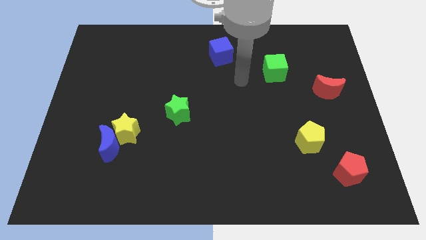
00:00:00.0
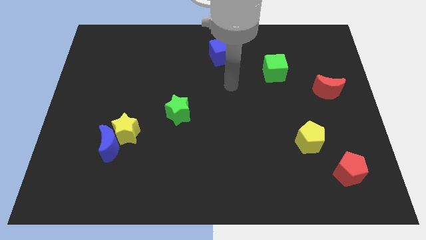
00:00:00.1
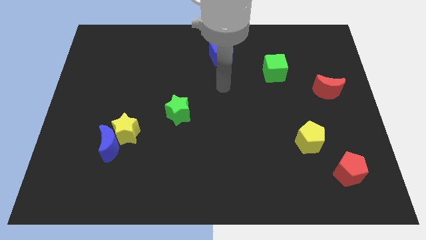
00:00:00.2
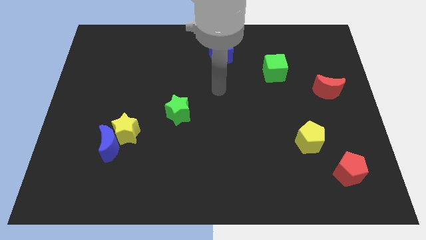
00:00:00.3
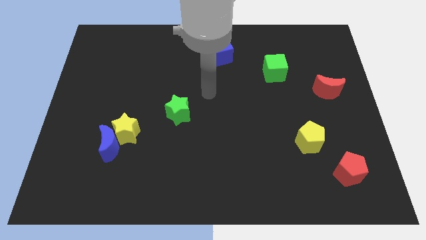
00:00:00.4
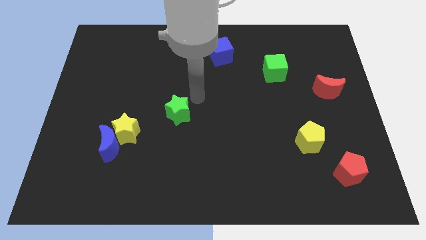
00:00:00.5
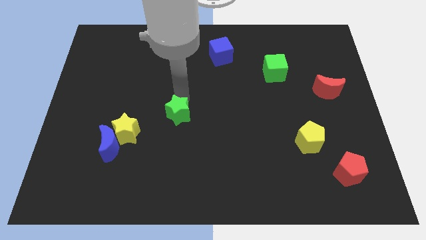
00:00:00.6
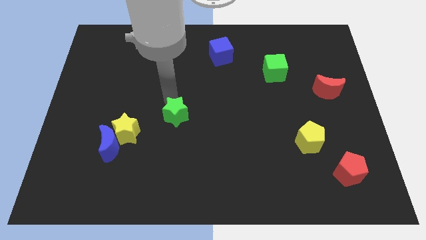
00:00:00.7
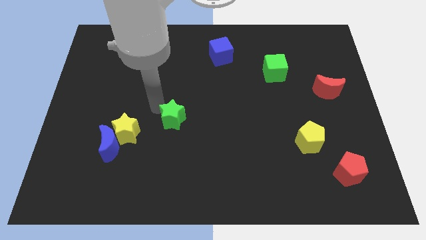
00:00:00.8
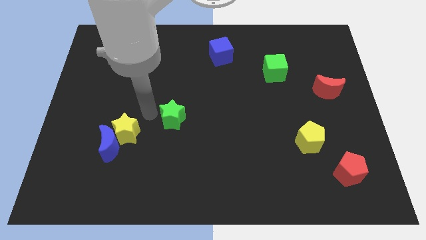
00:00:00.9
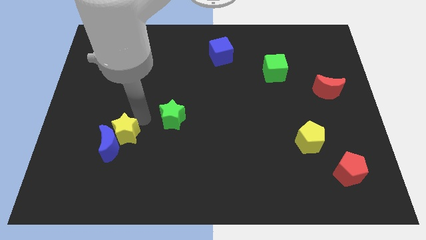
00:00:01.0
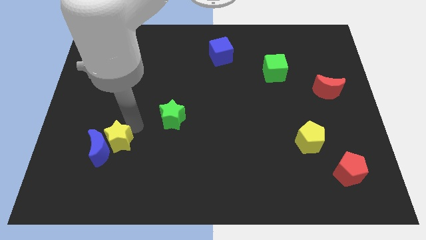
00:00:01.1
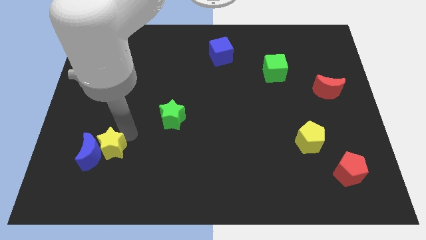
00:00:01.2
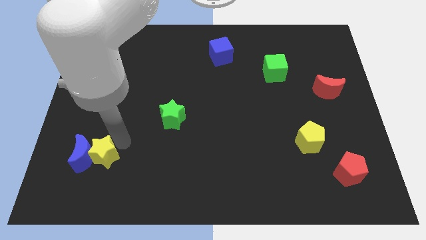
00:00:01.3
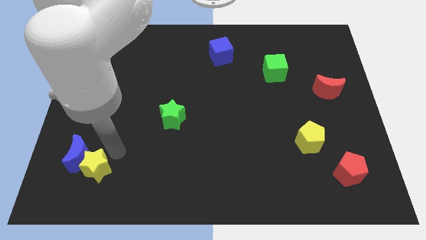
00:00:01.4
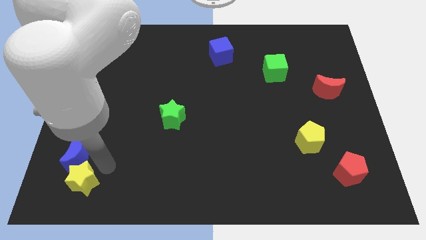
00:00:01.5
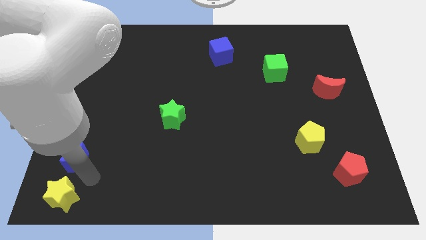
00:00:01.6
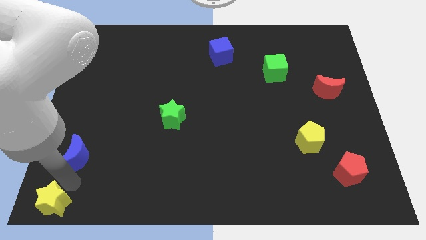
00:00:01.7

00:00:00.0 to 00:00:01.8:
separate the blue moon from the yellow star

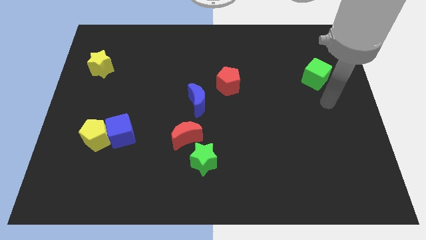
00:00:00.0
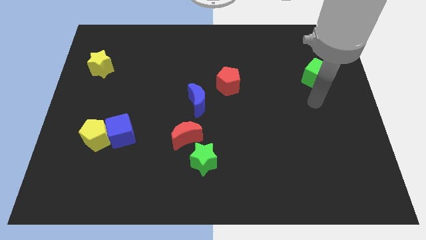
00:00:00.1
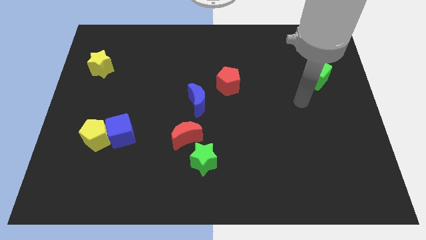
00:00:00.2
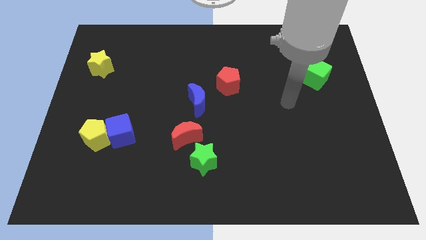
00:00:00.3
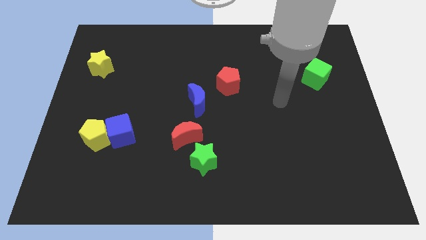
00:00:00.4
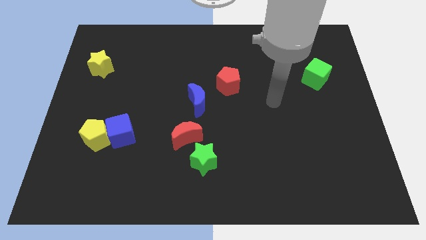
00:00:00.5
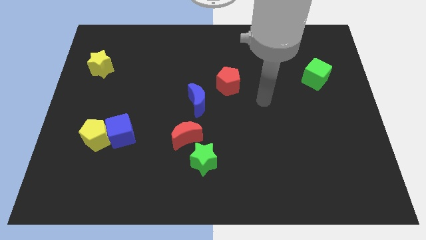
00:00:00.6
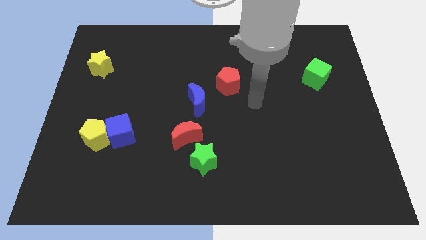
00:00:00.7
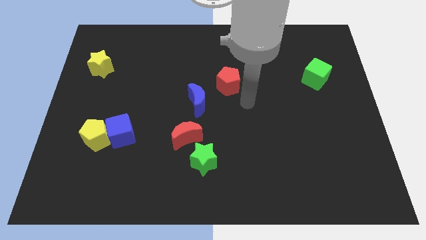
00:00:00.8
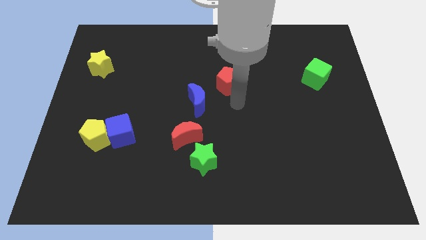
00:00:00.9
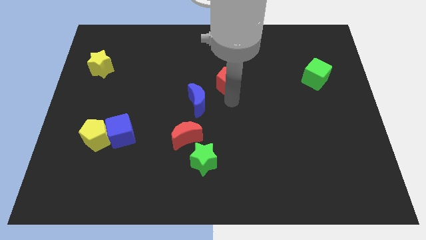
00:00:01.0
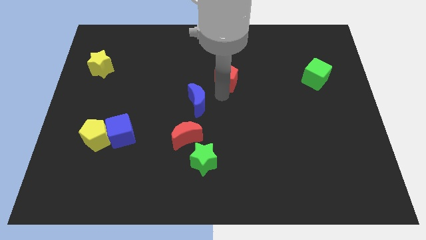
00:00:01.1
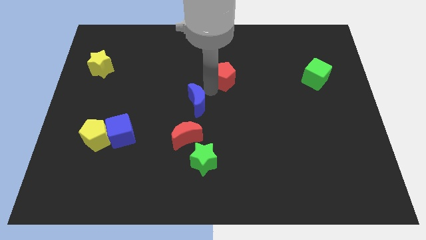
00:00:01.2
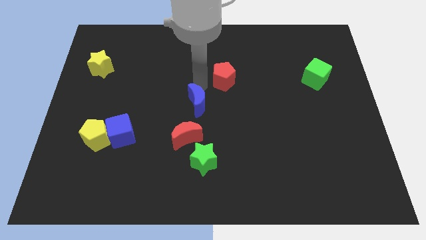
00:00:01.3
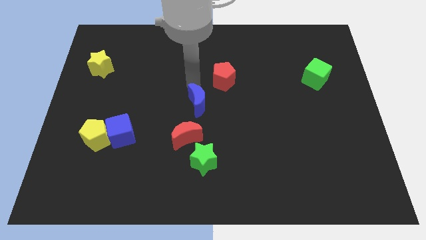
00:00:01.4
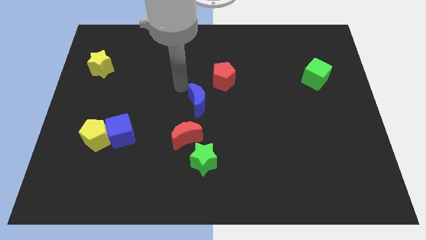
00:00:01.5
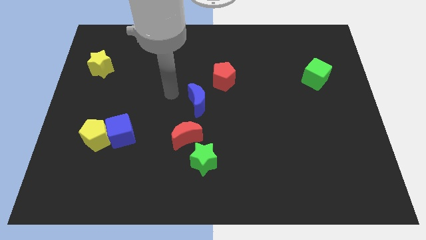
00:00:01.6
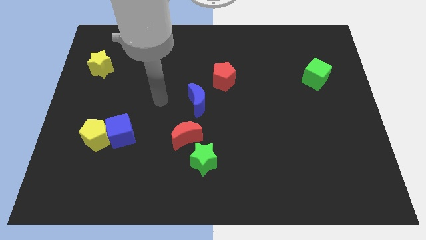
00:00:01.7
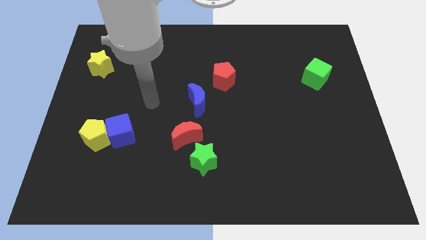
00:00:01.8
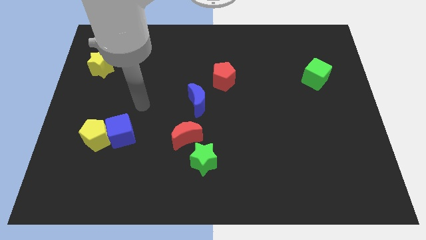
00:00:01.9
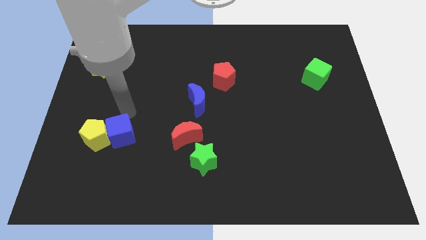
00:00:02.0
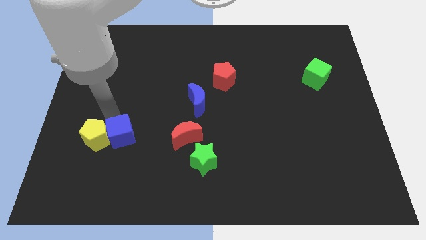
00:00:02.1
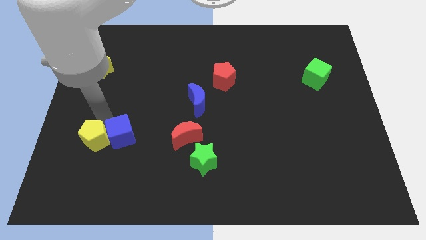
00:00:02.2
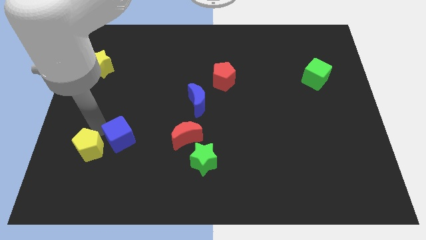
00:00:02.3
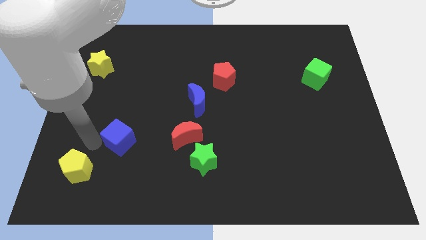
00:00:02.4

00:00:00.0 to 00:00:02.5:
separate the blue cube from the yellow pentagon

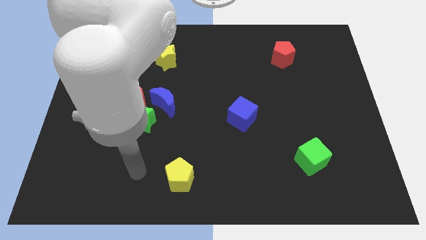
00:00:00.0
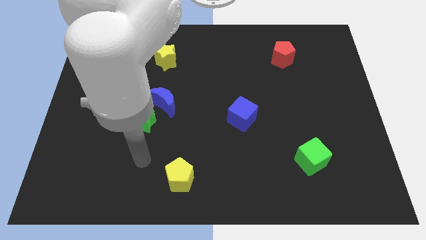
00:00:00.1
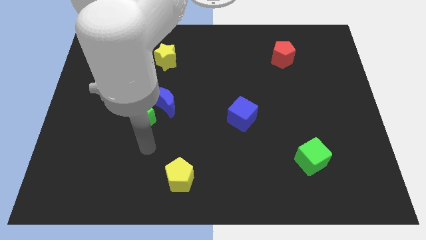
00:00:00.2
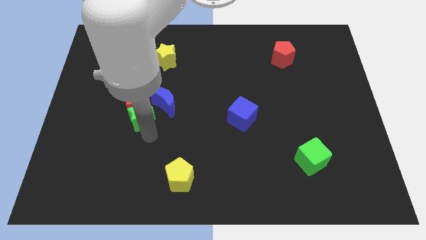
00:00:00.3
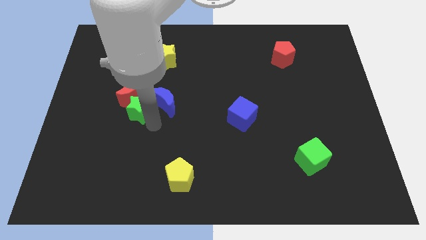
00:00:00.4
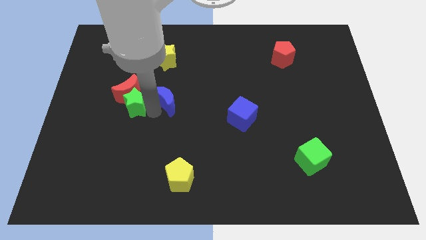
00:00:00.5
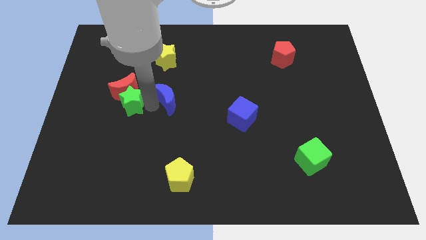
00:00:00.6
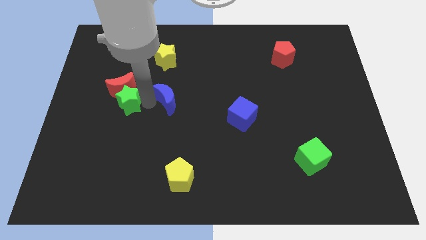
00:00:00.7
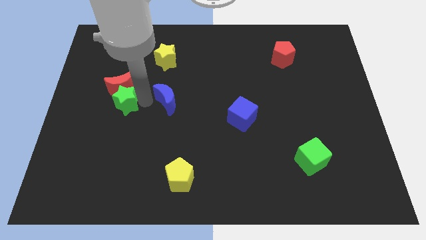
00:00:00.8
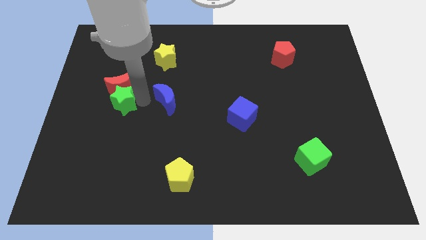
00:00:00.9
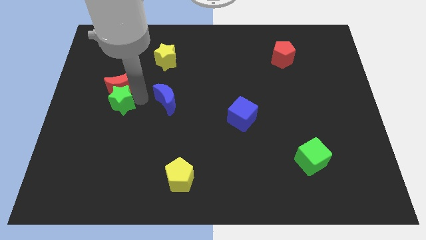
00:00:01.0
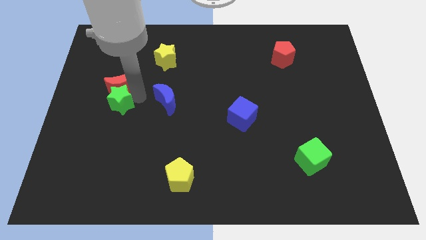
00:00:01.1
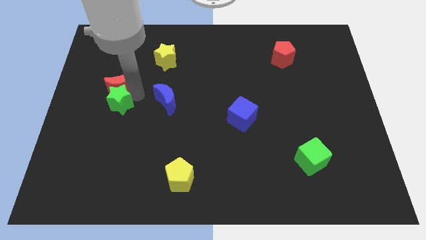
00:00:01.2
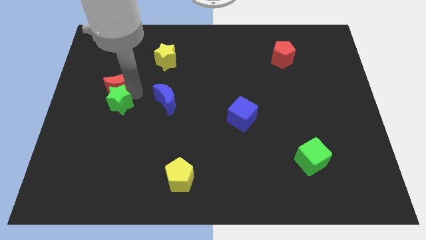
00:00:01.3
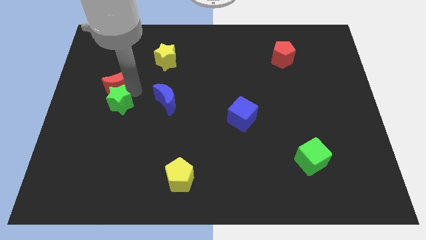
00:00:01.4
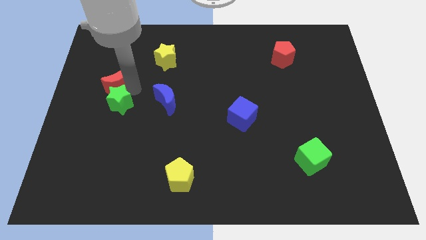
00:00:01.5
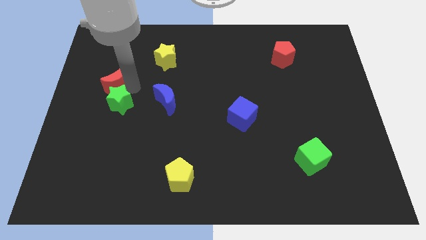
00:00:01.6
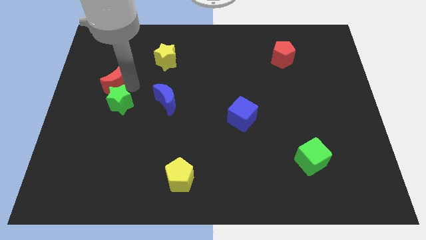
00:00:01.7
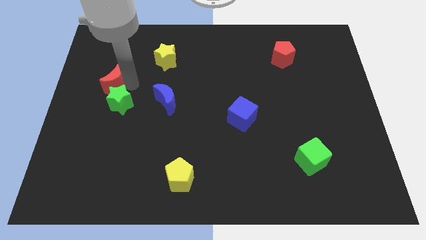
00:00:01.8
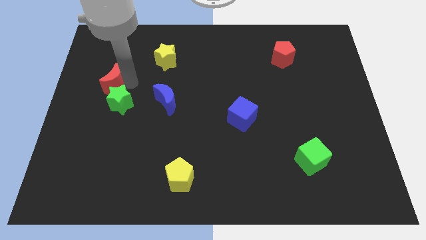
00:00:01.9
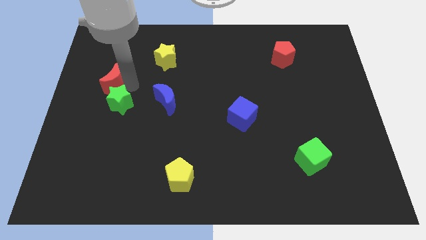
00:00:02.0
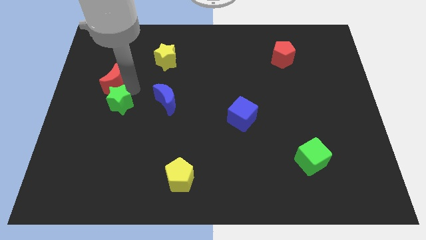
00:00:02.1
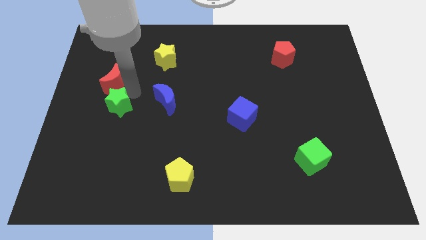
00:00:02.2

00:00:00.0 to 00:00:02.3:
move the red moon away from the green star and blue moon

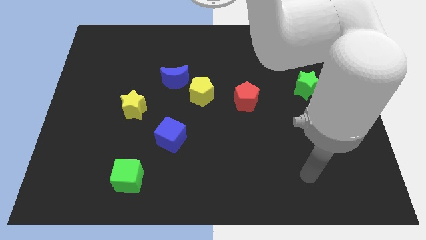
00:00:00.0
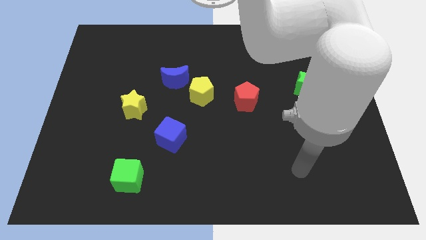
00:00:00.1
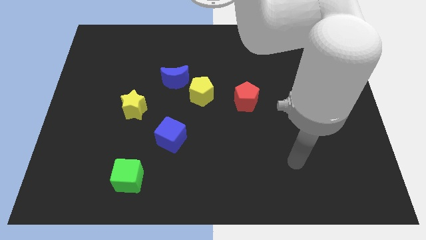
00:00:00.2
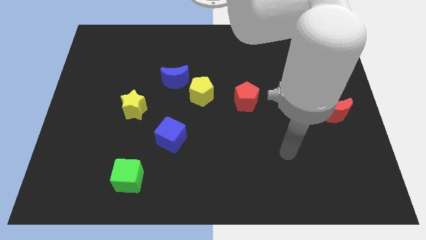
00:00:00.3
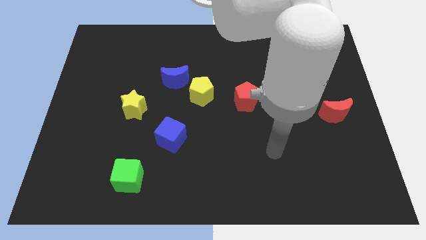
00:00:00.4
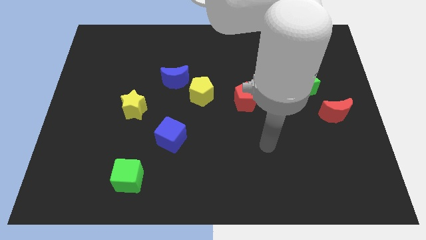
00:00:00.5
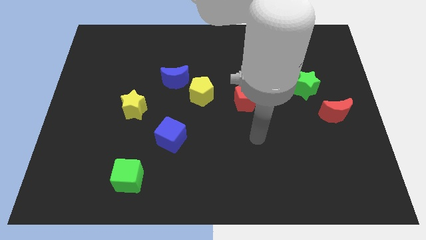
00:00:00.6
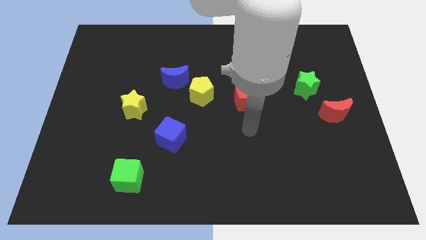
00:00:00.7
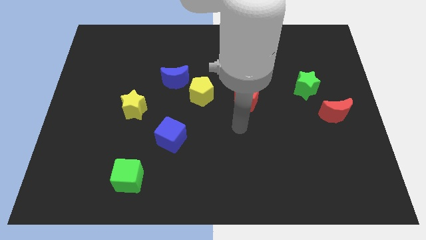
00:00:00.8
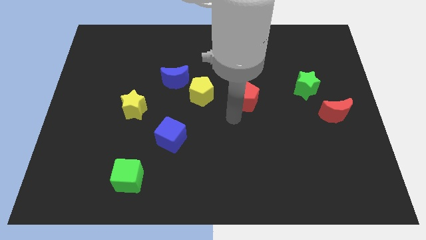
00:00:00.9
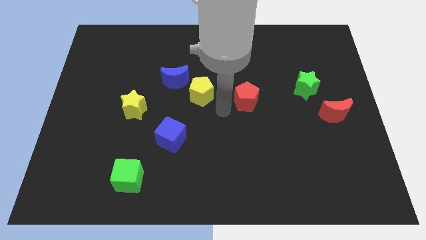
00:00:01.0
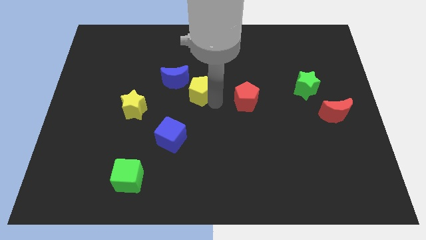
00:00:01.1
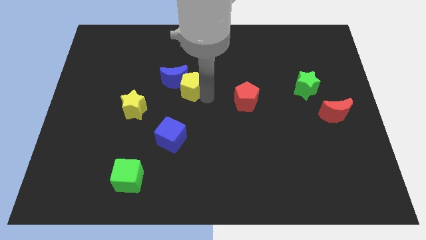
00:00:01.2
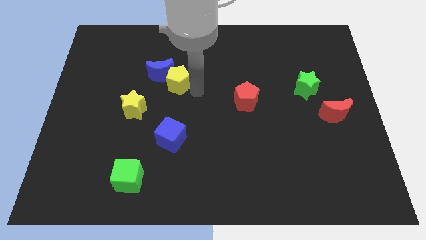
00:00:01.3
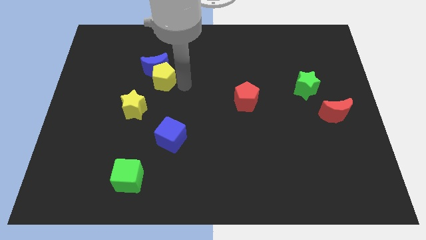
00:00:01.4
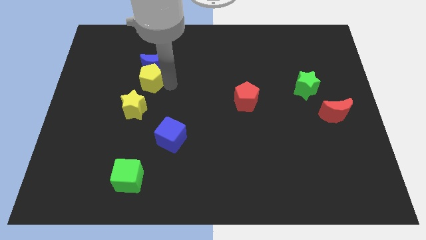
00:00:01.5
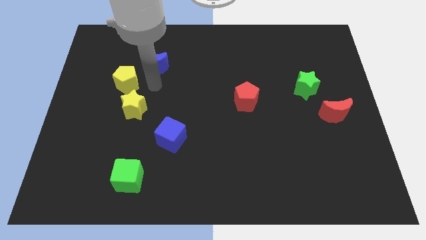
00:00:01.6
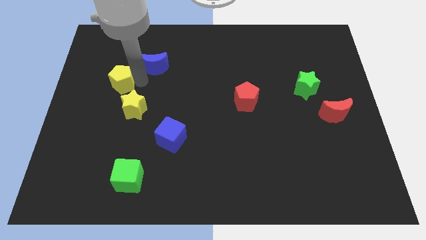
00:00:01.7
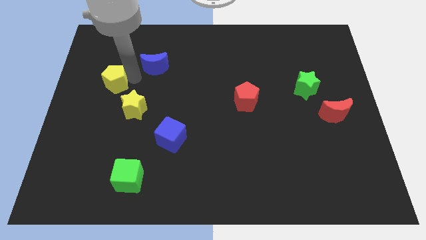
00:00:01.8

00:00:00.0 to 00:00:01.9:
separate the blue moon from the yellow pentagon

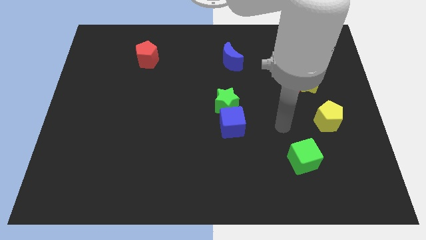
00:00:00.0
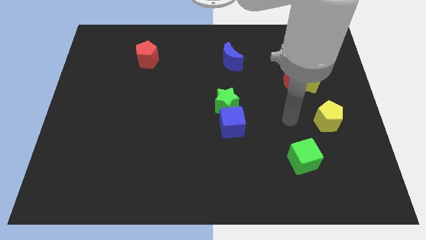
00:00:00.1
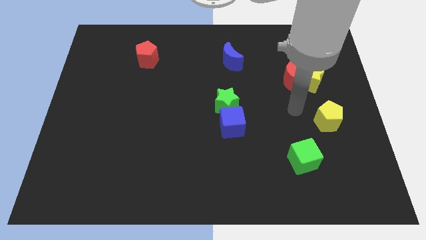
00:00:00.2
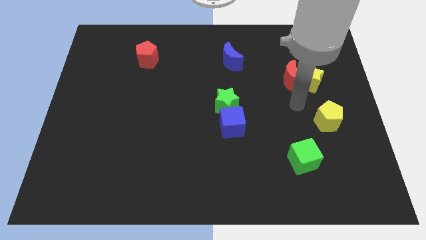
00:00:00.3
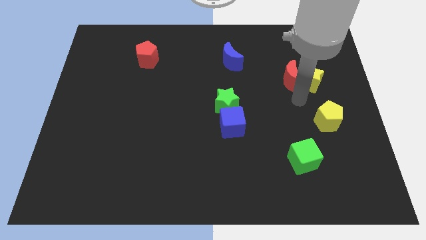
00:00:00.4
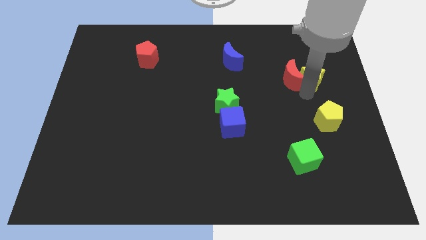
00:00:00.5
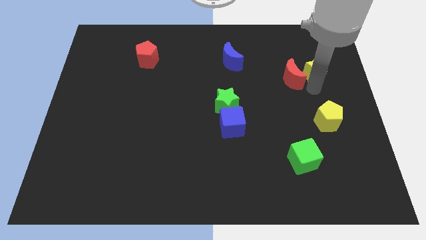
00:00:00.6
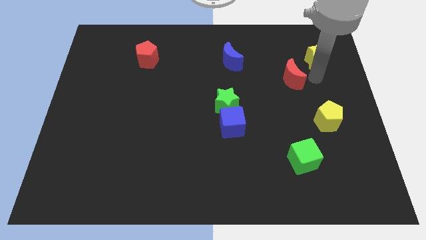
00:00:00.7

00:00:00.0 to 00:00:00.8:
pull the red moon apart from the yellow star
